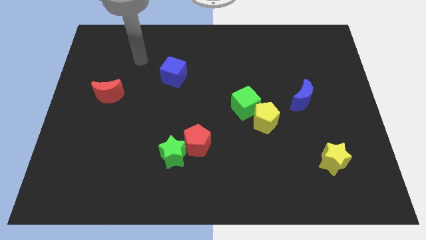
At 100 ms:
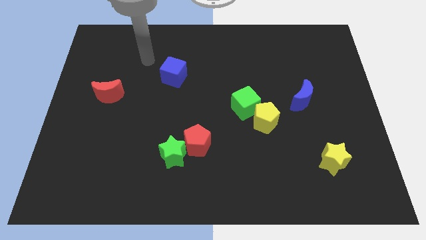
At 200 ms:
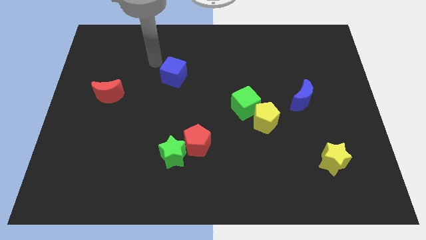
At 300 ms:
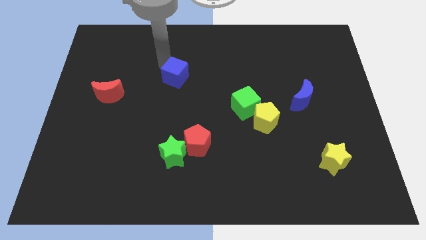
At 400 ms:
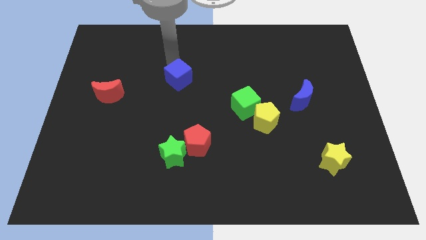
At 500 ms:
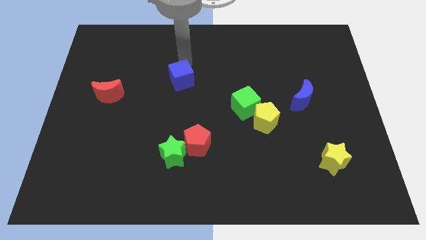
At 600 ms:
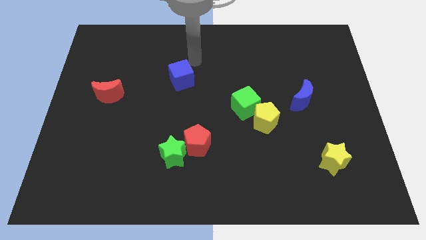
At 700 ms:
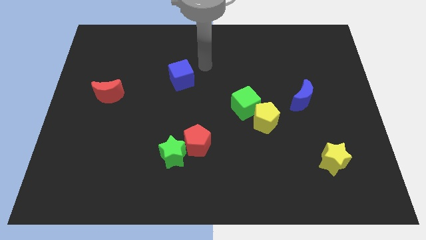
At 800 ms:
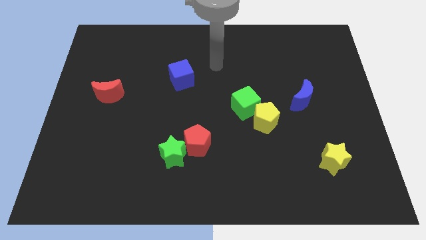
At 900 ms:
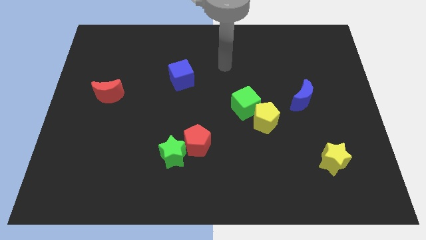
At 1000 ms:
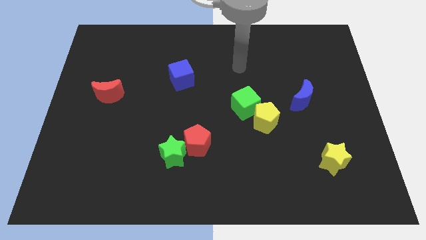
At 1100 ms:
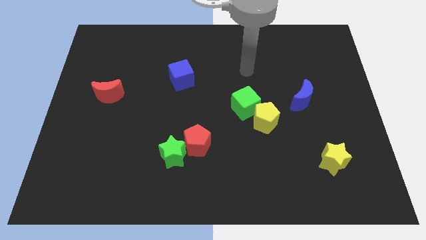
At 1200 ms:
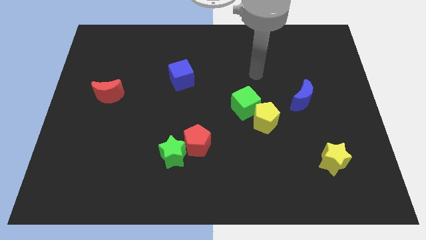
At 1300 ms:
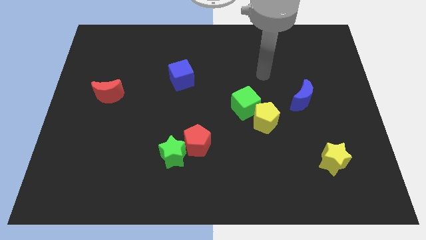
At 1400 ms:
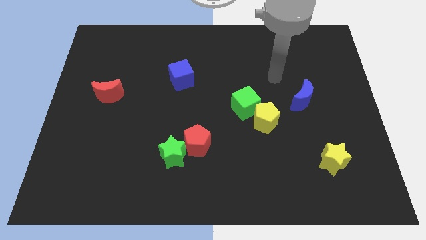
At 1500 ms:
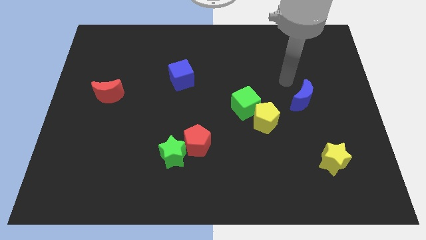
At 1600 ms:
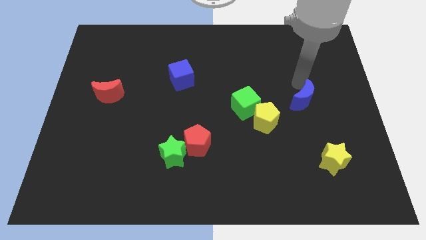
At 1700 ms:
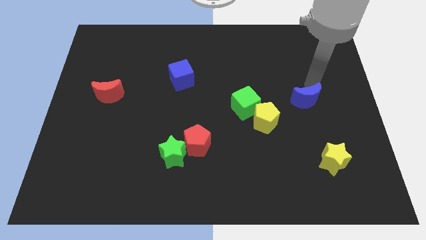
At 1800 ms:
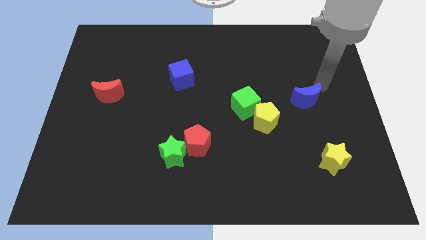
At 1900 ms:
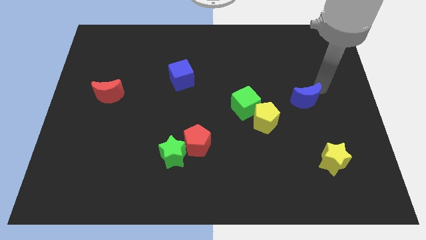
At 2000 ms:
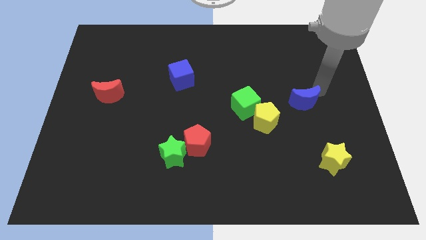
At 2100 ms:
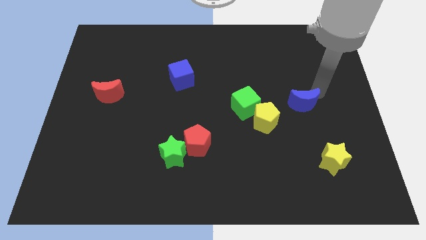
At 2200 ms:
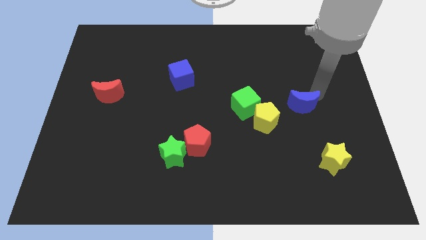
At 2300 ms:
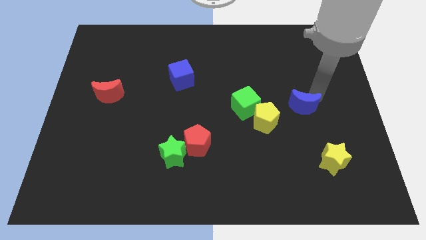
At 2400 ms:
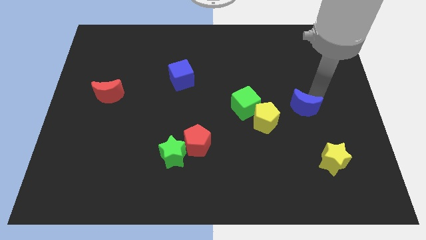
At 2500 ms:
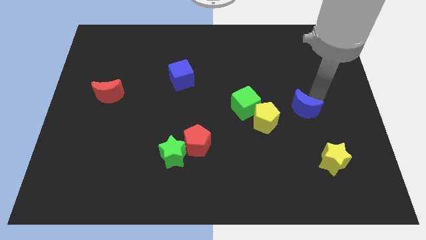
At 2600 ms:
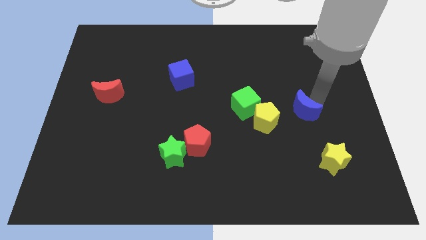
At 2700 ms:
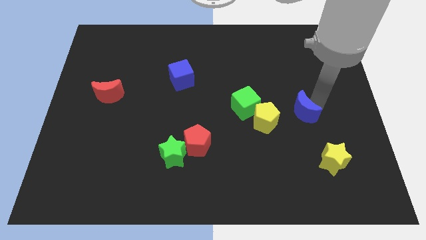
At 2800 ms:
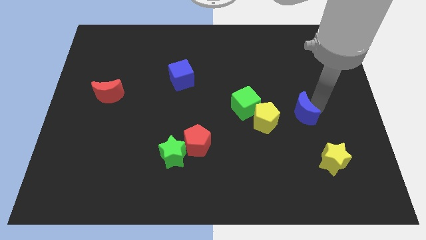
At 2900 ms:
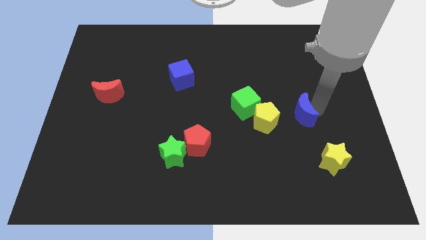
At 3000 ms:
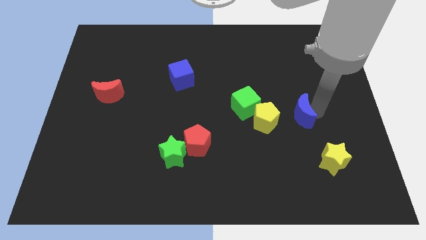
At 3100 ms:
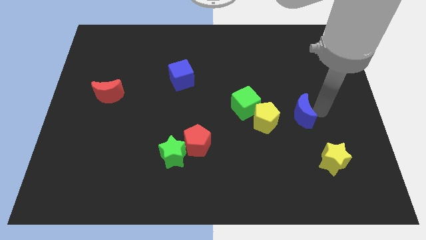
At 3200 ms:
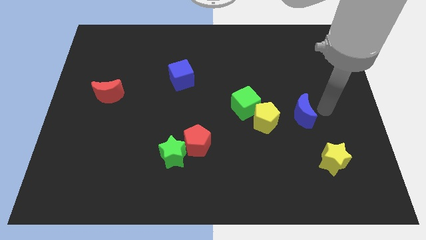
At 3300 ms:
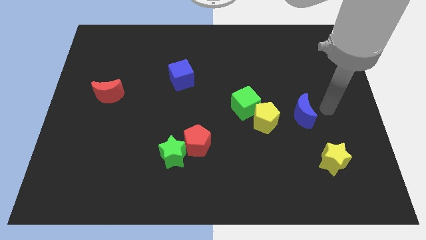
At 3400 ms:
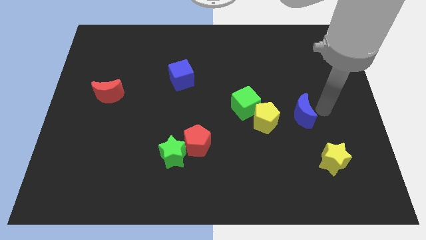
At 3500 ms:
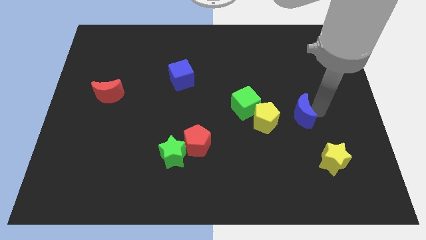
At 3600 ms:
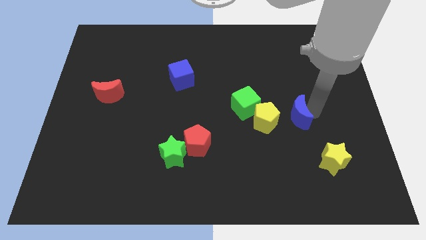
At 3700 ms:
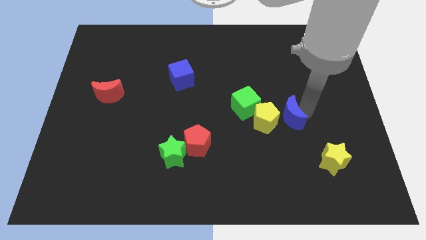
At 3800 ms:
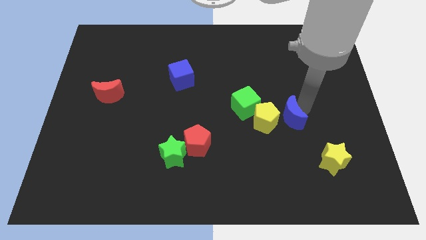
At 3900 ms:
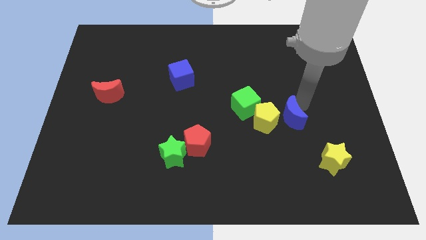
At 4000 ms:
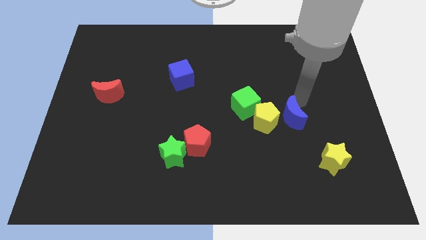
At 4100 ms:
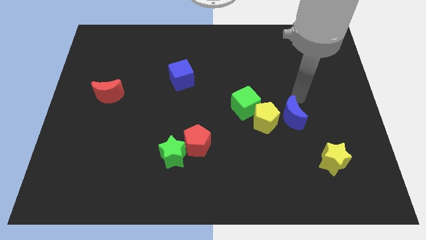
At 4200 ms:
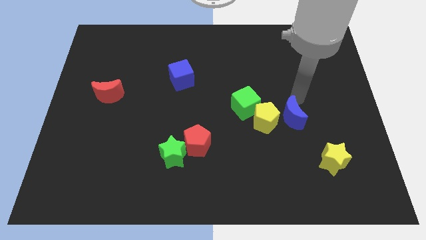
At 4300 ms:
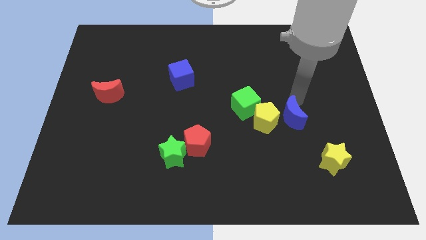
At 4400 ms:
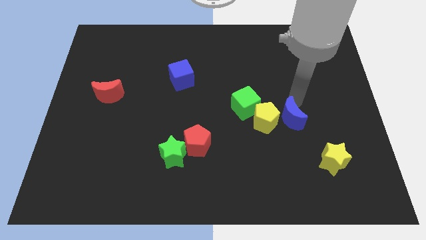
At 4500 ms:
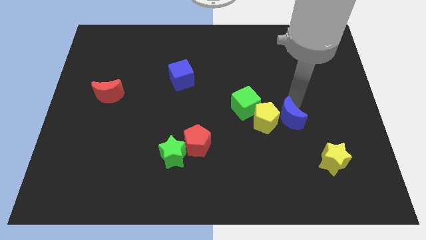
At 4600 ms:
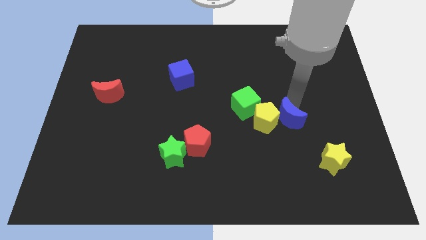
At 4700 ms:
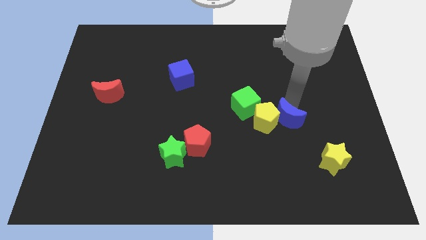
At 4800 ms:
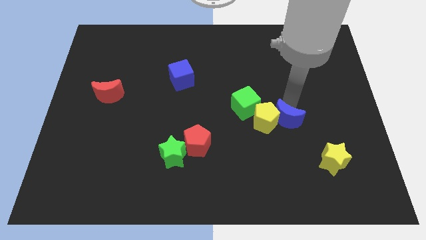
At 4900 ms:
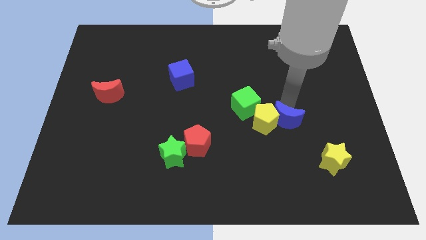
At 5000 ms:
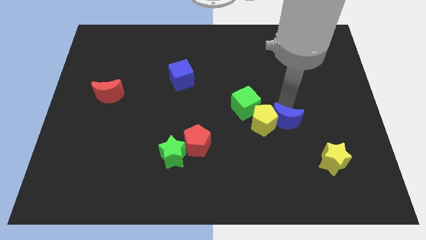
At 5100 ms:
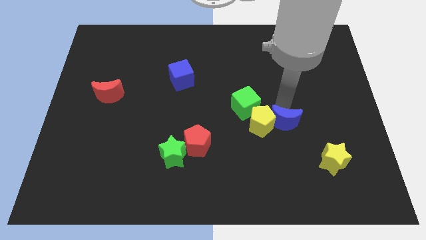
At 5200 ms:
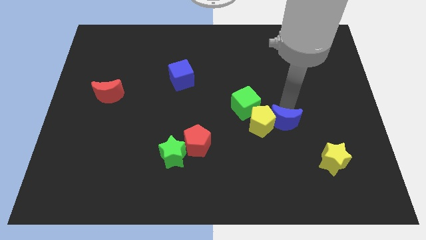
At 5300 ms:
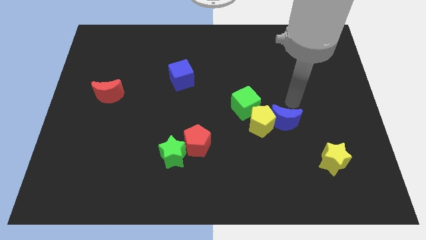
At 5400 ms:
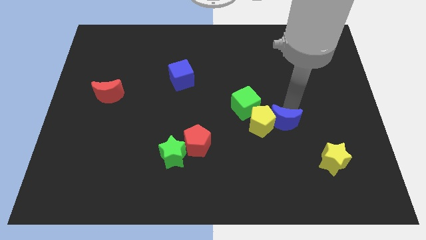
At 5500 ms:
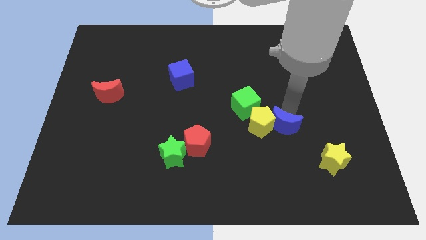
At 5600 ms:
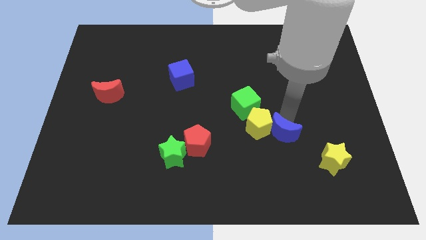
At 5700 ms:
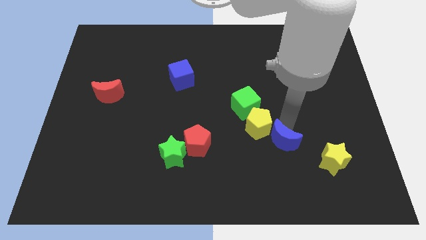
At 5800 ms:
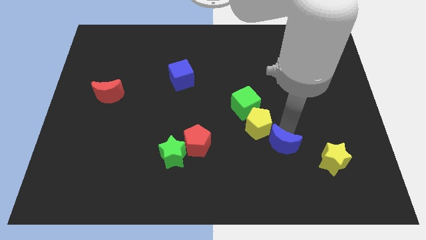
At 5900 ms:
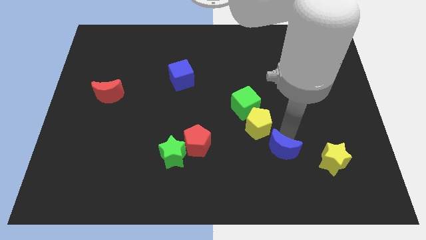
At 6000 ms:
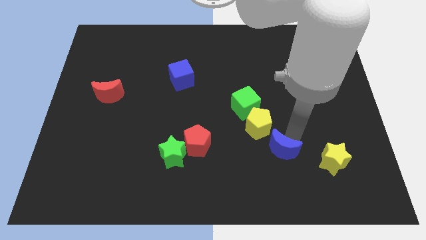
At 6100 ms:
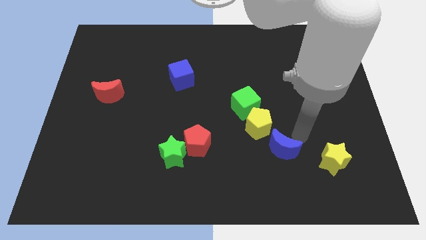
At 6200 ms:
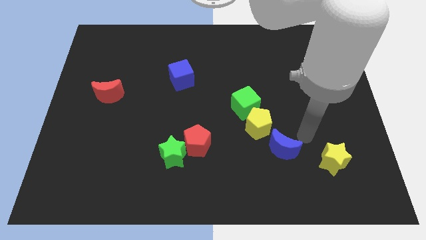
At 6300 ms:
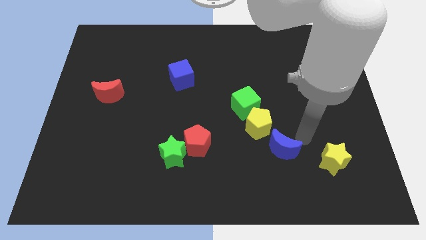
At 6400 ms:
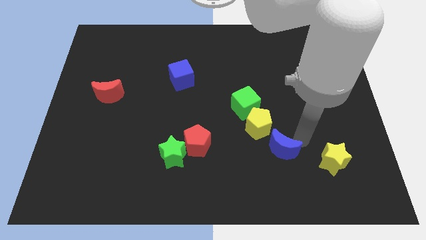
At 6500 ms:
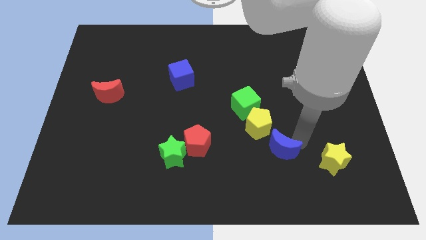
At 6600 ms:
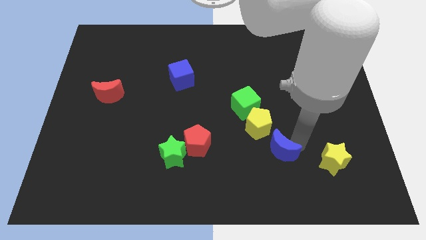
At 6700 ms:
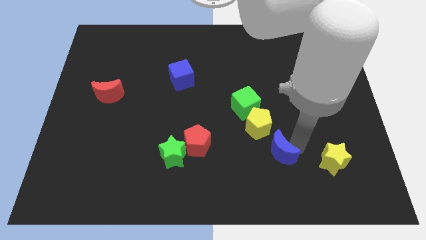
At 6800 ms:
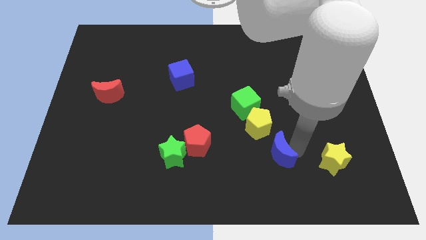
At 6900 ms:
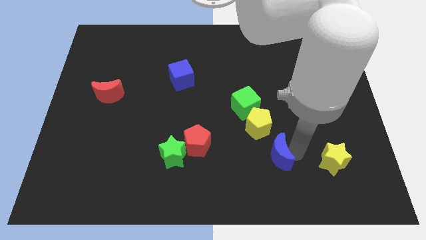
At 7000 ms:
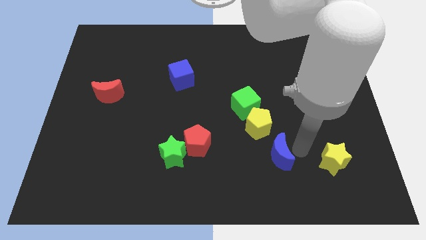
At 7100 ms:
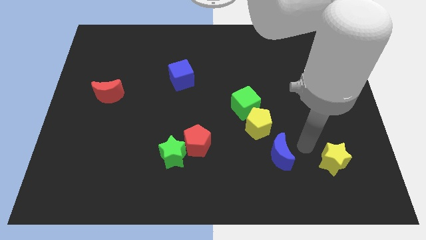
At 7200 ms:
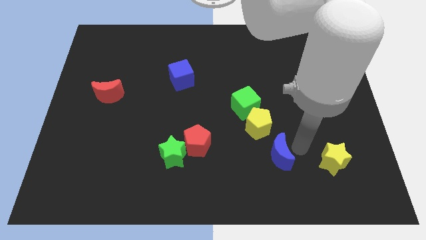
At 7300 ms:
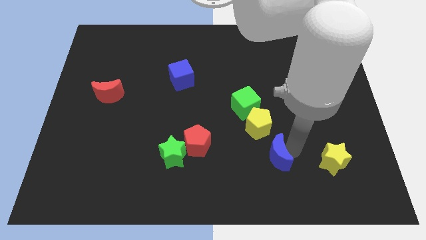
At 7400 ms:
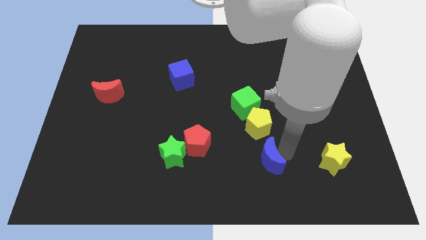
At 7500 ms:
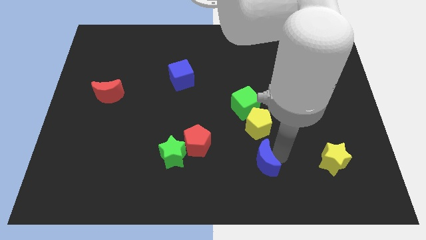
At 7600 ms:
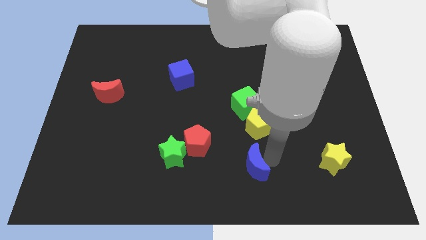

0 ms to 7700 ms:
push the blue moon to the bottom
